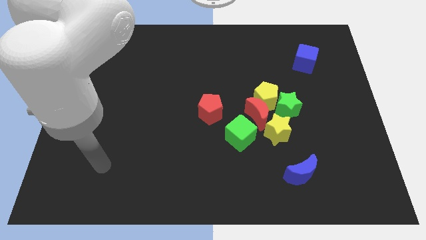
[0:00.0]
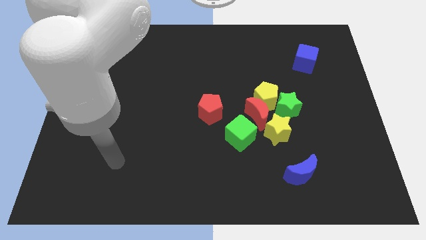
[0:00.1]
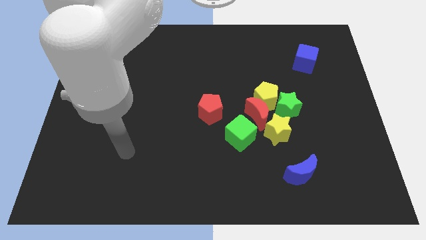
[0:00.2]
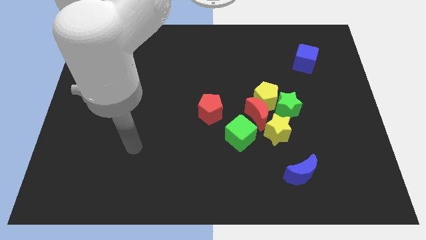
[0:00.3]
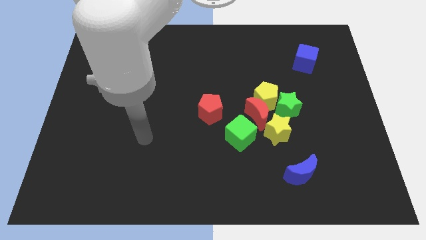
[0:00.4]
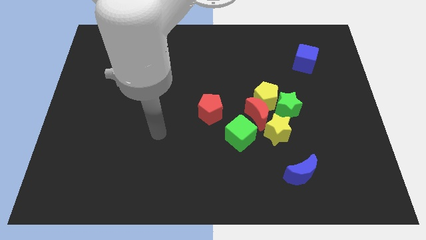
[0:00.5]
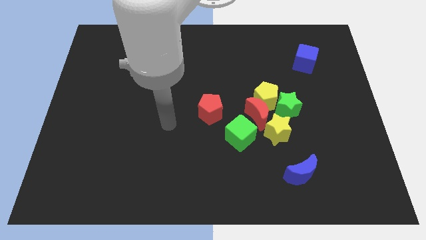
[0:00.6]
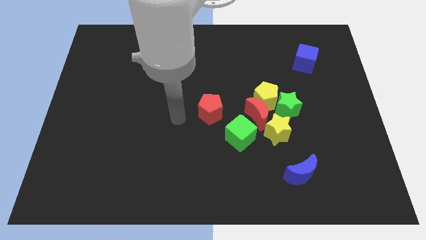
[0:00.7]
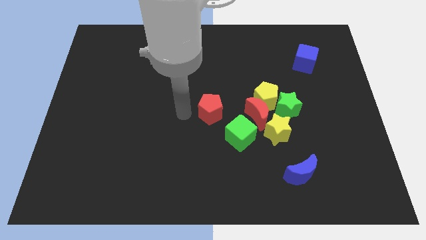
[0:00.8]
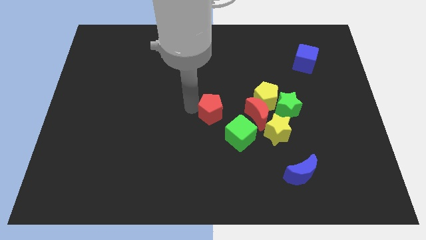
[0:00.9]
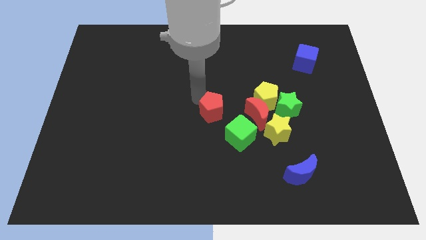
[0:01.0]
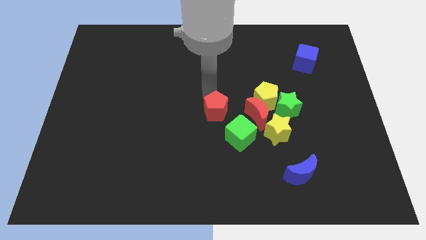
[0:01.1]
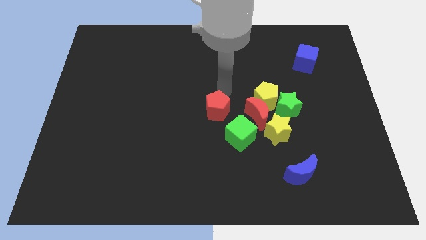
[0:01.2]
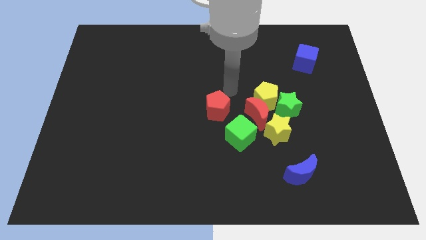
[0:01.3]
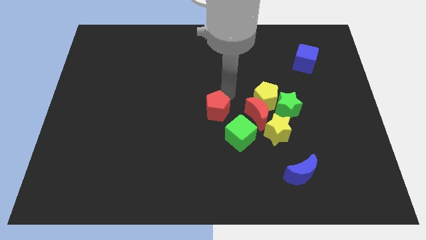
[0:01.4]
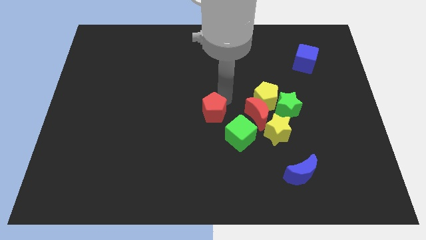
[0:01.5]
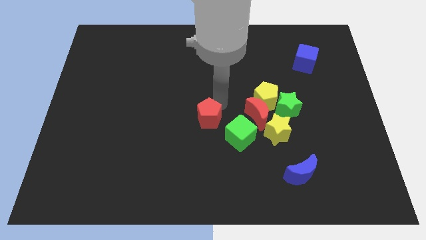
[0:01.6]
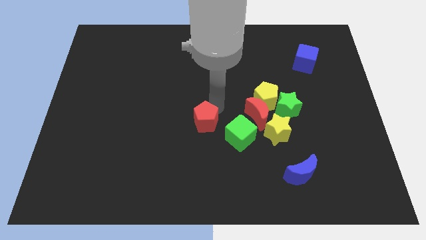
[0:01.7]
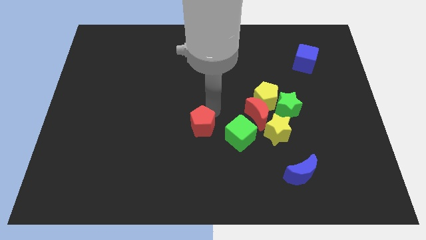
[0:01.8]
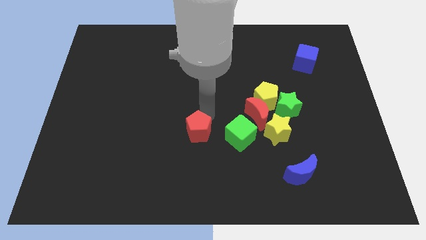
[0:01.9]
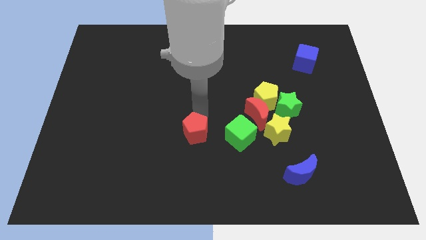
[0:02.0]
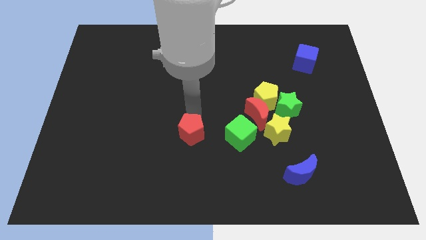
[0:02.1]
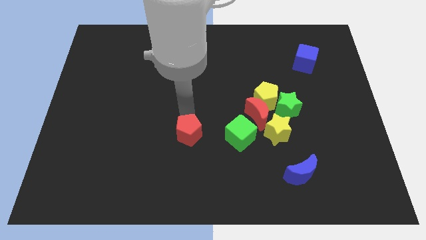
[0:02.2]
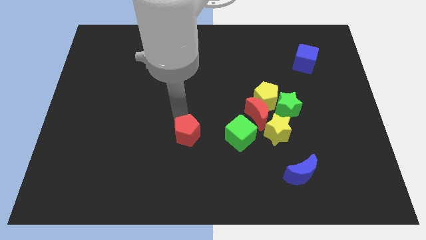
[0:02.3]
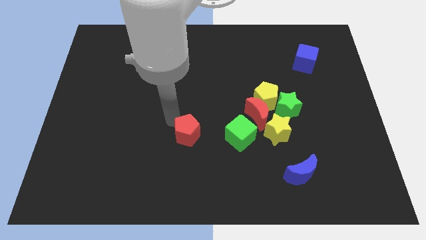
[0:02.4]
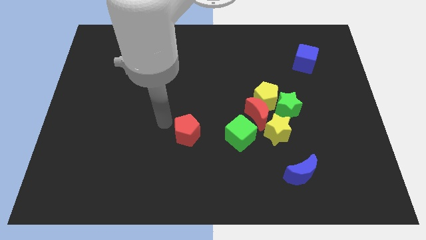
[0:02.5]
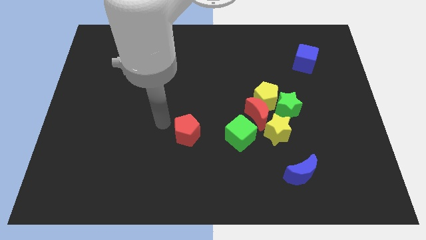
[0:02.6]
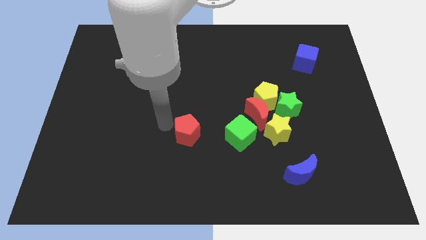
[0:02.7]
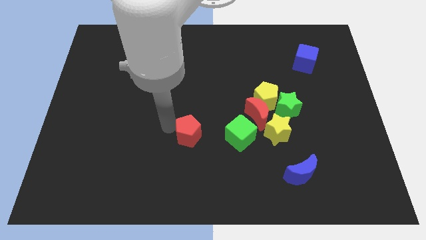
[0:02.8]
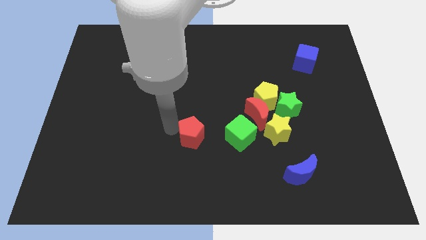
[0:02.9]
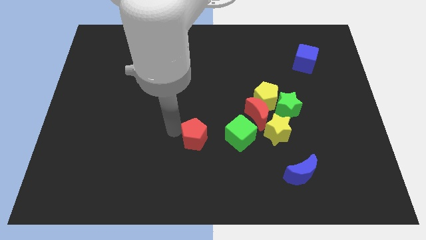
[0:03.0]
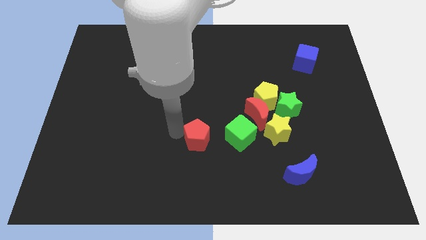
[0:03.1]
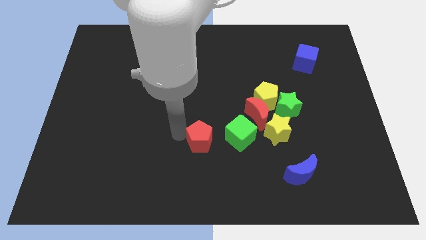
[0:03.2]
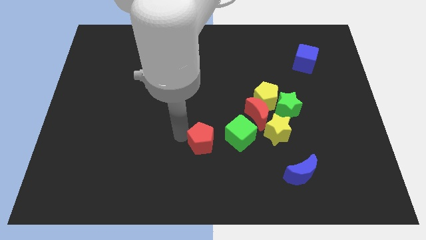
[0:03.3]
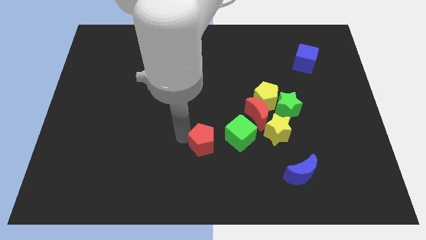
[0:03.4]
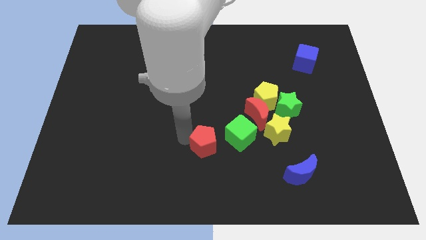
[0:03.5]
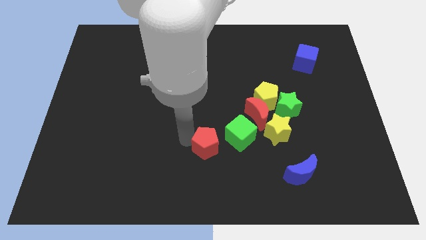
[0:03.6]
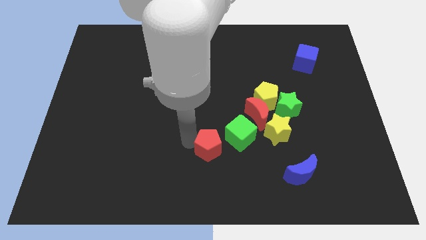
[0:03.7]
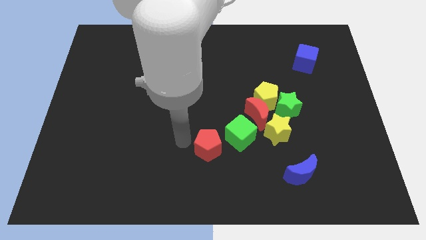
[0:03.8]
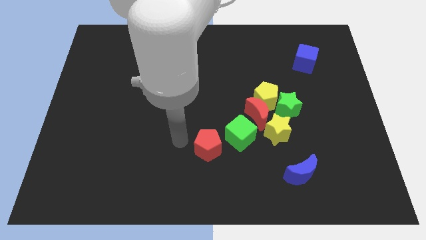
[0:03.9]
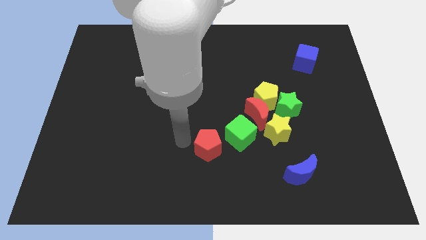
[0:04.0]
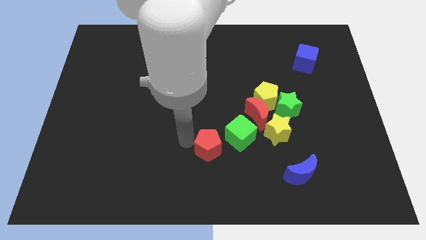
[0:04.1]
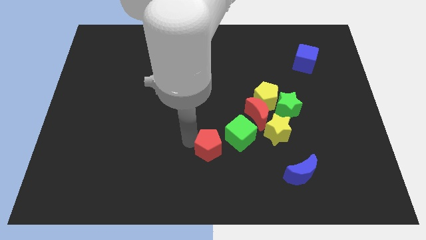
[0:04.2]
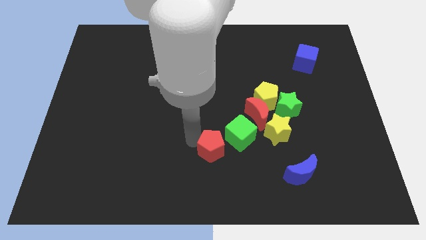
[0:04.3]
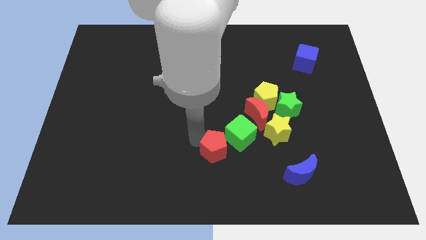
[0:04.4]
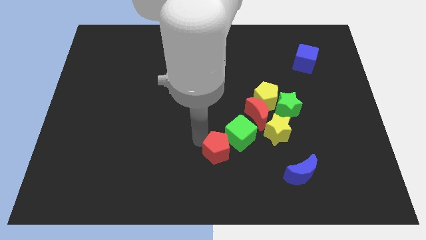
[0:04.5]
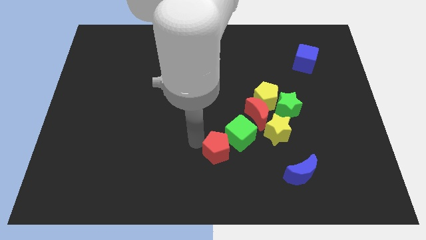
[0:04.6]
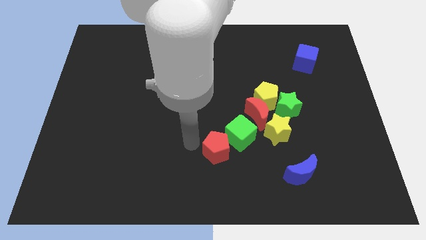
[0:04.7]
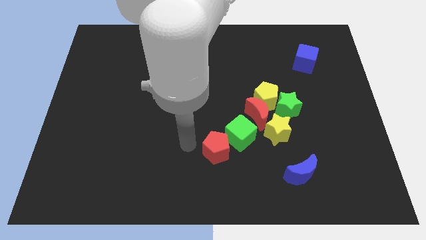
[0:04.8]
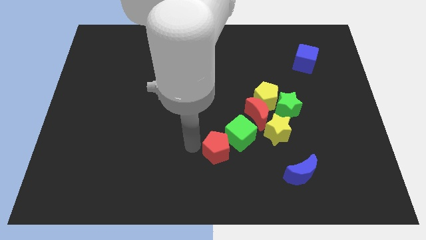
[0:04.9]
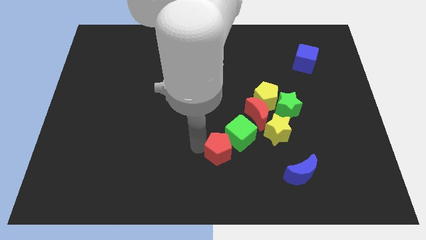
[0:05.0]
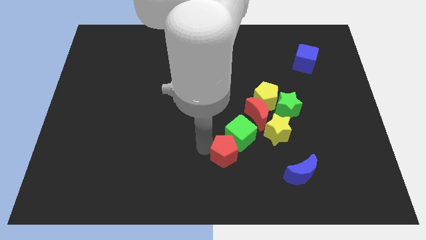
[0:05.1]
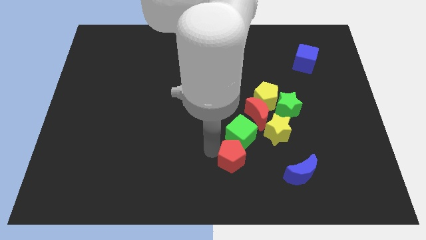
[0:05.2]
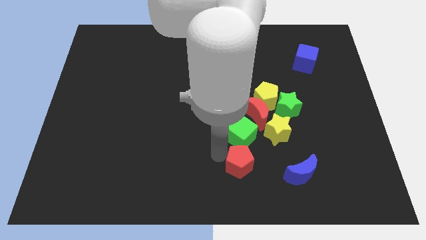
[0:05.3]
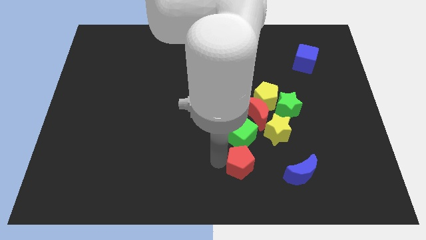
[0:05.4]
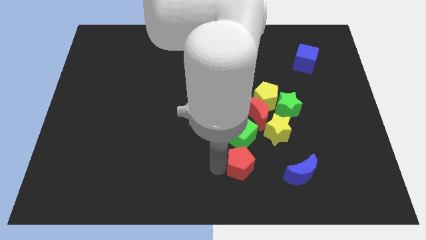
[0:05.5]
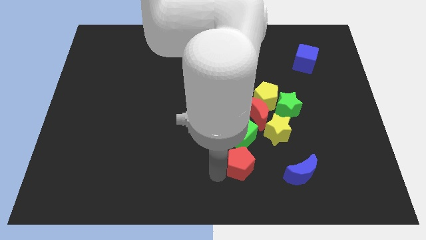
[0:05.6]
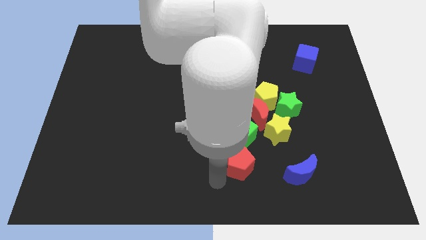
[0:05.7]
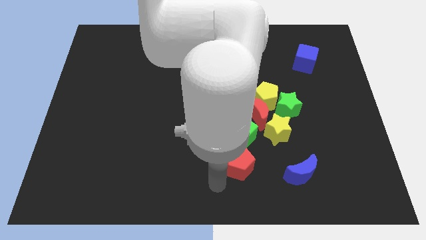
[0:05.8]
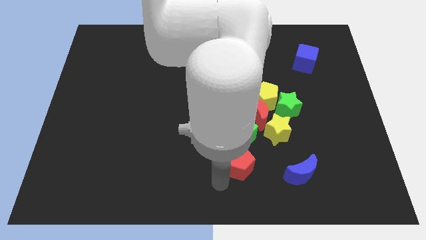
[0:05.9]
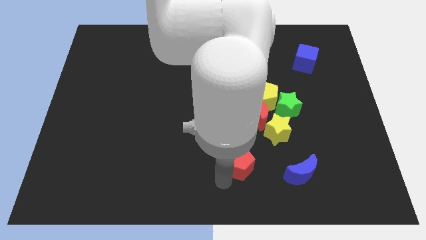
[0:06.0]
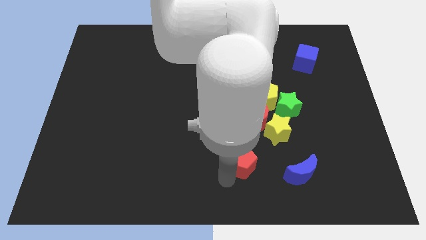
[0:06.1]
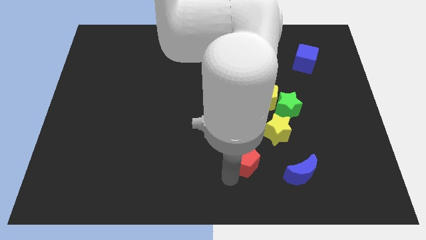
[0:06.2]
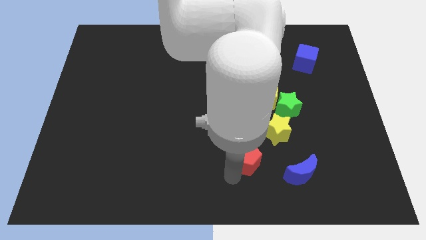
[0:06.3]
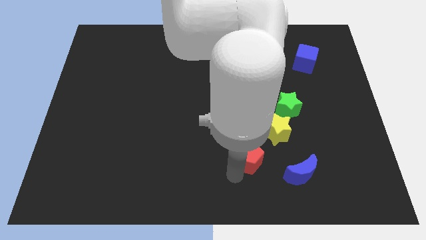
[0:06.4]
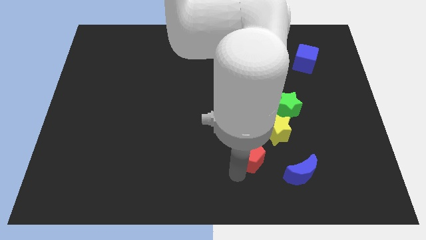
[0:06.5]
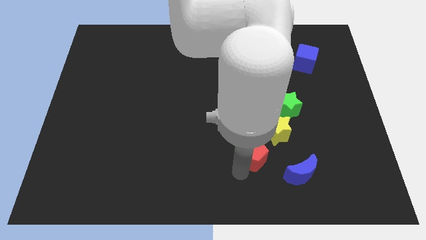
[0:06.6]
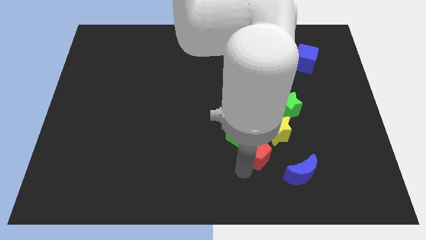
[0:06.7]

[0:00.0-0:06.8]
push the red pentagon to the bottom of the yellow pentagon

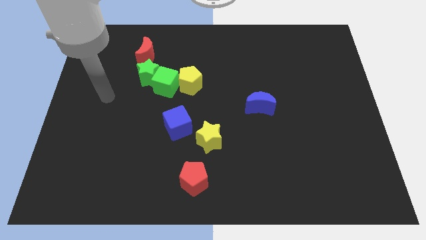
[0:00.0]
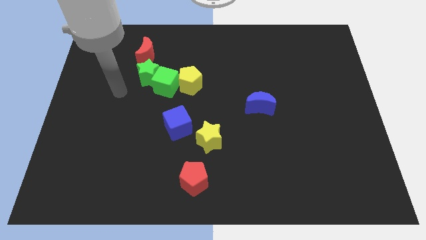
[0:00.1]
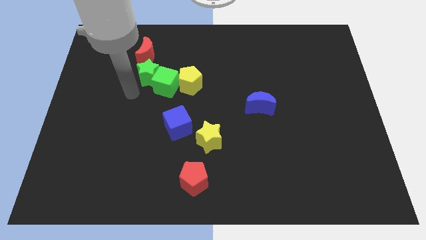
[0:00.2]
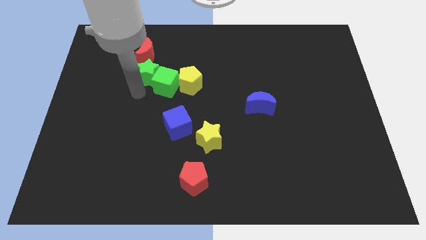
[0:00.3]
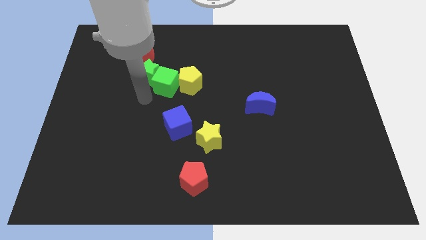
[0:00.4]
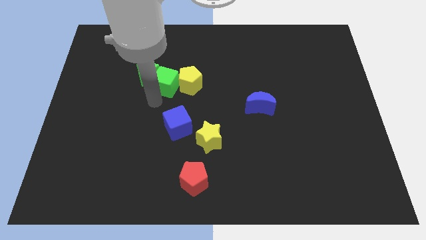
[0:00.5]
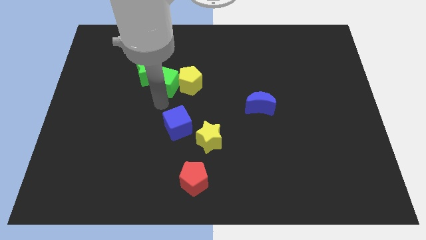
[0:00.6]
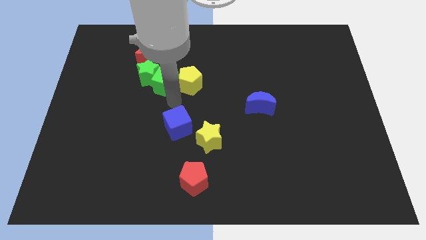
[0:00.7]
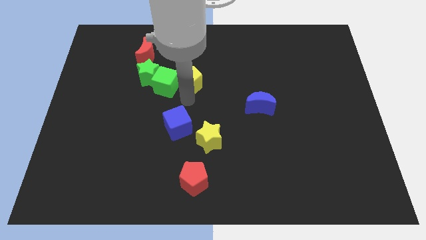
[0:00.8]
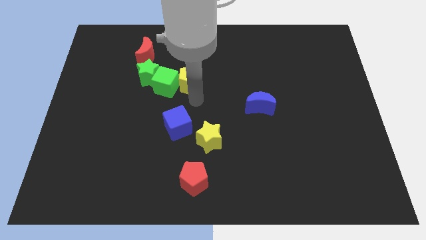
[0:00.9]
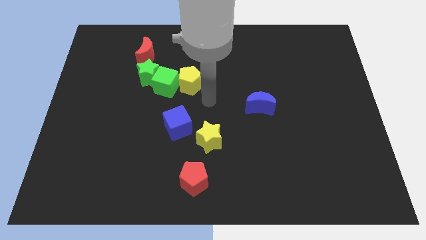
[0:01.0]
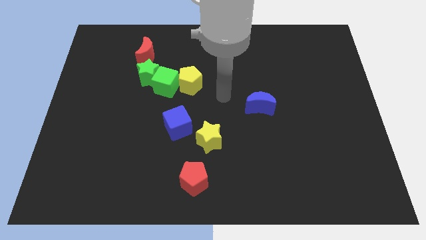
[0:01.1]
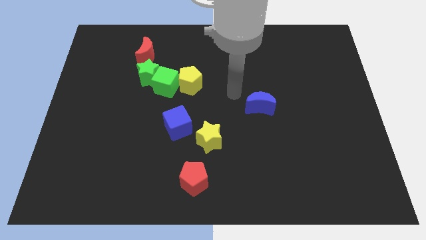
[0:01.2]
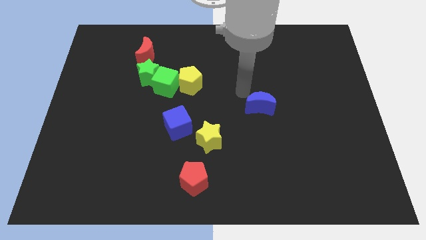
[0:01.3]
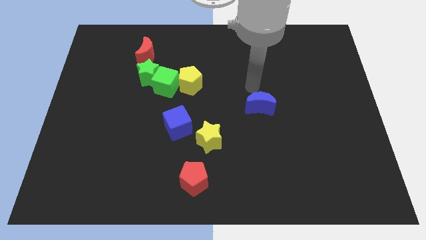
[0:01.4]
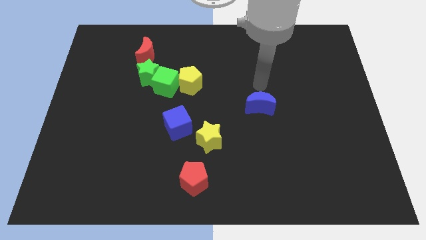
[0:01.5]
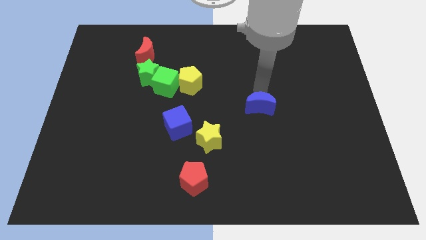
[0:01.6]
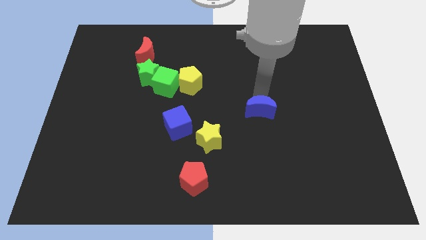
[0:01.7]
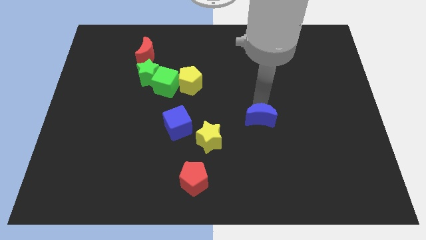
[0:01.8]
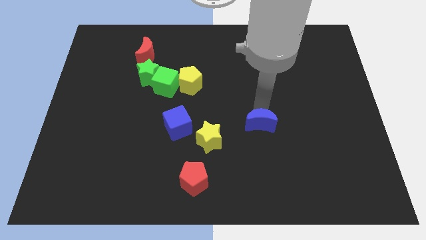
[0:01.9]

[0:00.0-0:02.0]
put the blue moon to the right of the yellow star
